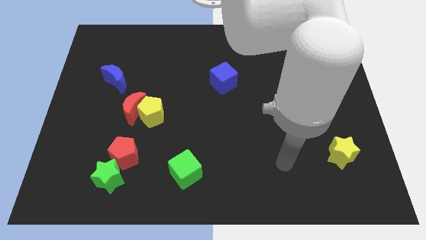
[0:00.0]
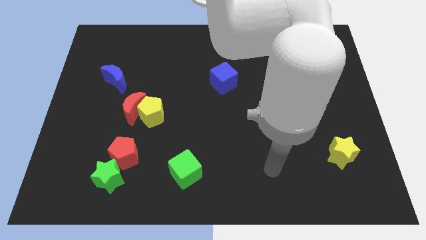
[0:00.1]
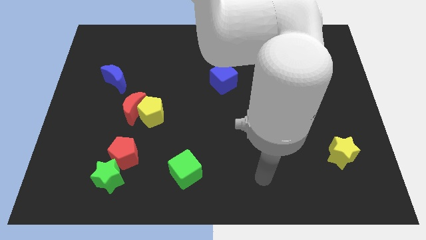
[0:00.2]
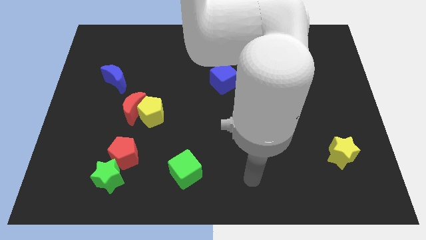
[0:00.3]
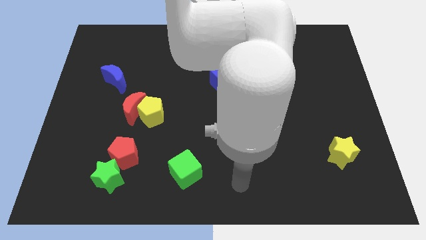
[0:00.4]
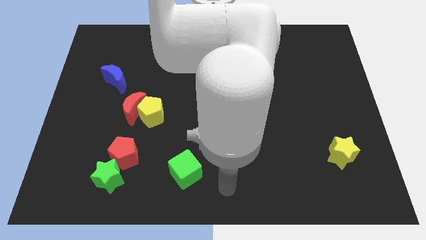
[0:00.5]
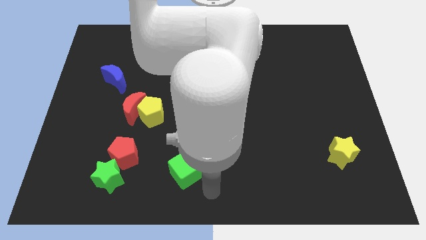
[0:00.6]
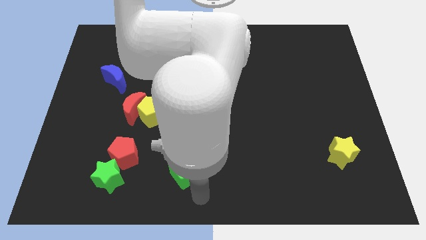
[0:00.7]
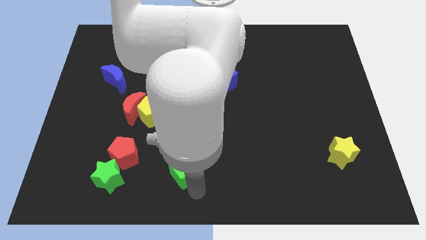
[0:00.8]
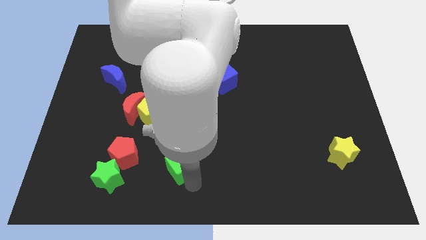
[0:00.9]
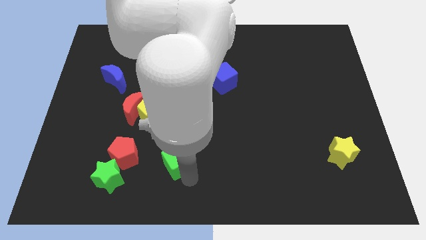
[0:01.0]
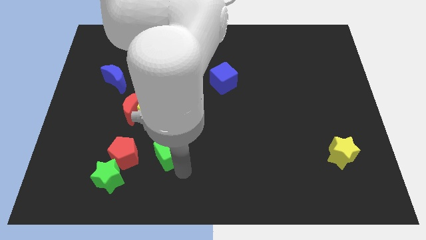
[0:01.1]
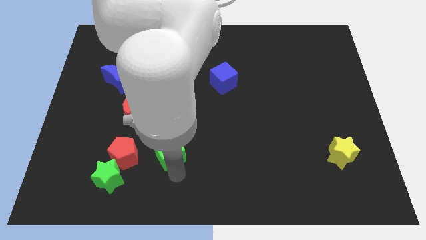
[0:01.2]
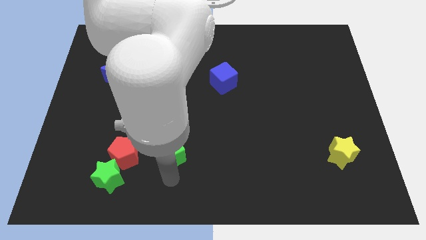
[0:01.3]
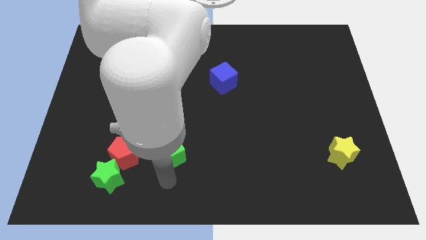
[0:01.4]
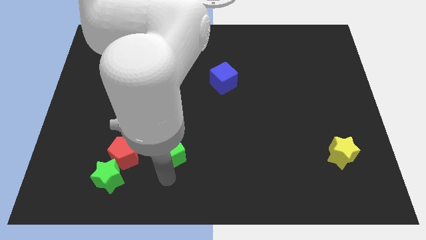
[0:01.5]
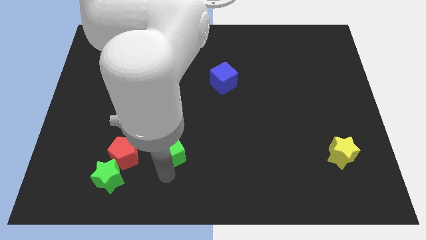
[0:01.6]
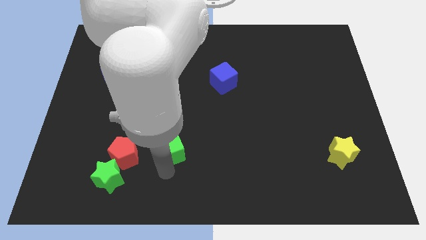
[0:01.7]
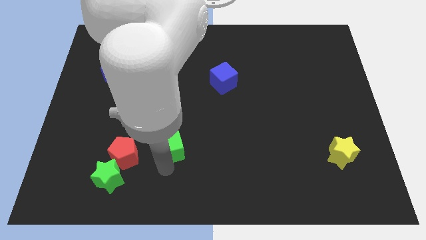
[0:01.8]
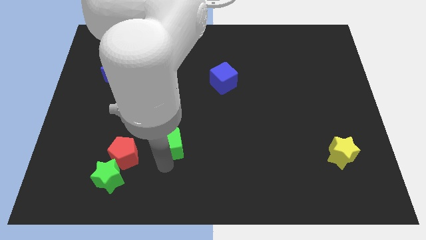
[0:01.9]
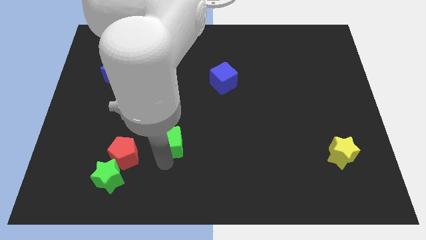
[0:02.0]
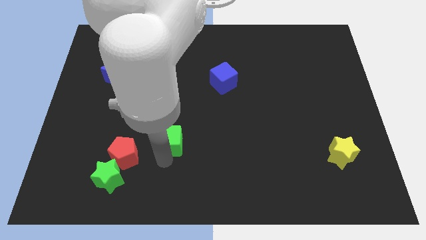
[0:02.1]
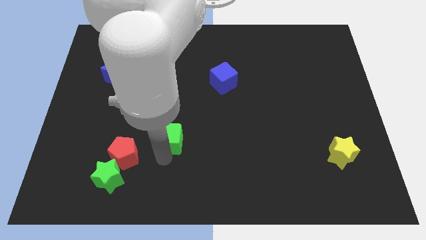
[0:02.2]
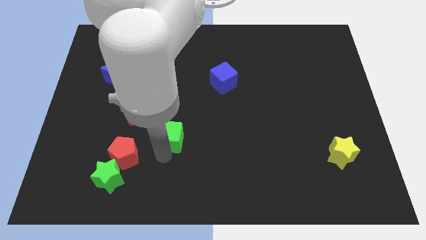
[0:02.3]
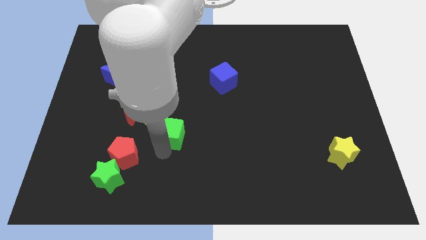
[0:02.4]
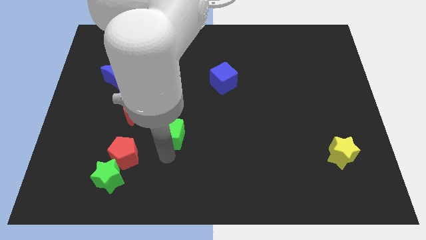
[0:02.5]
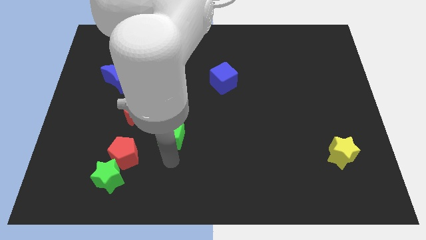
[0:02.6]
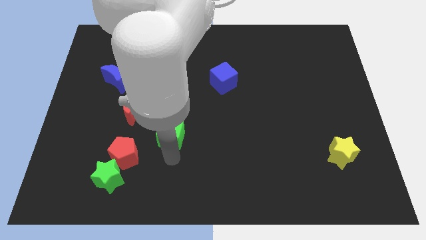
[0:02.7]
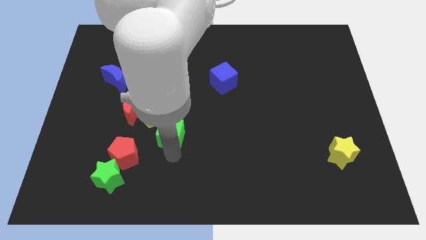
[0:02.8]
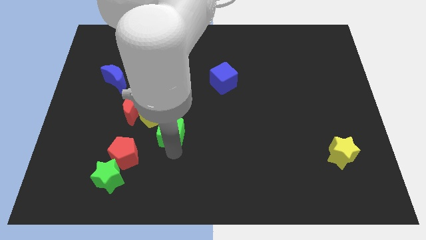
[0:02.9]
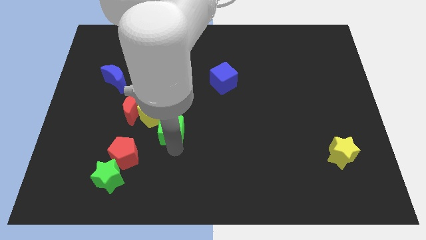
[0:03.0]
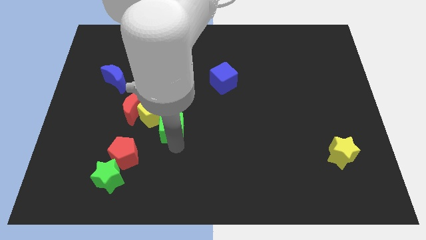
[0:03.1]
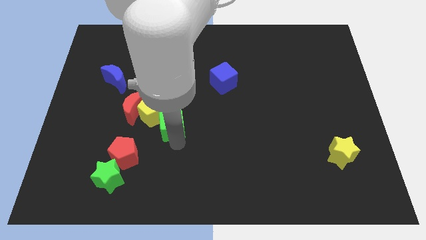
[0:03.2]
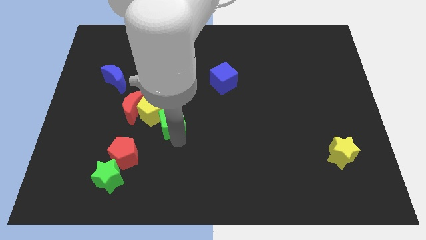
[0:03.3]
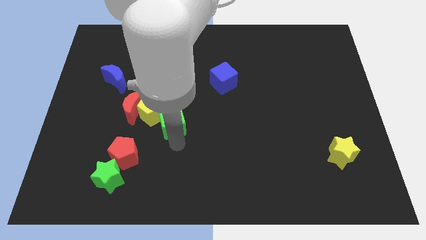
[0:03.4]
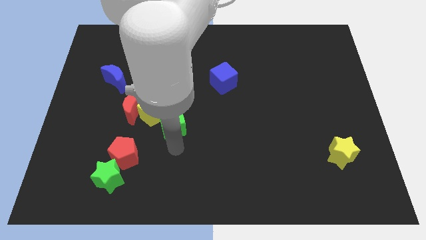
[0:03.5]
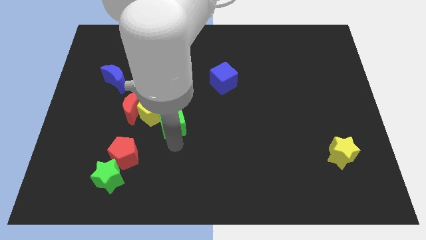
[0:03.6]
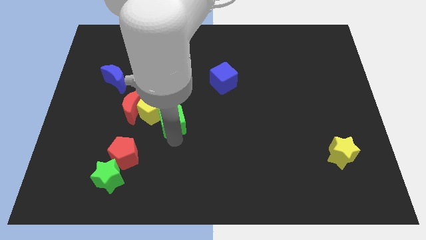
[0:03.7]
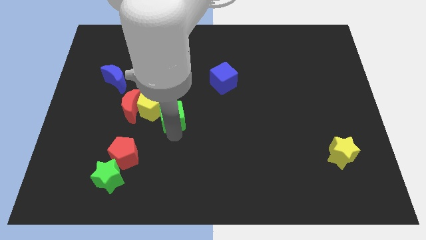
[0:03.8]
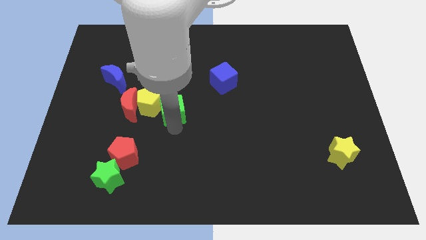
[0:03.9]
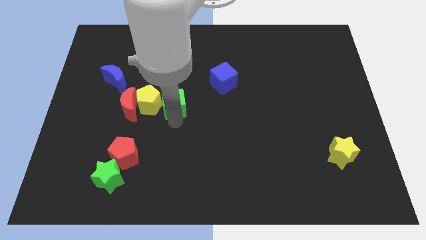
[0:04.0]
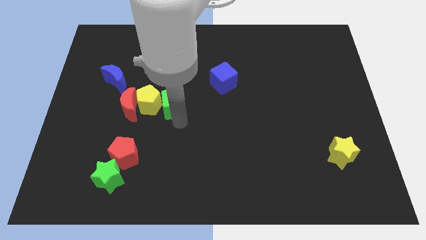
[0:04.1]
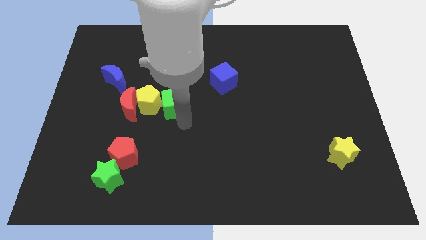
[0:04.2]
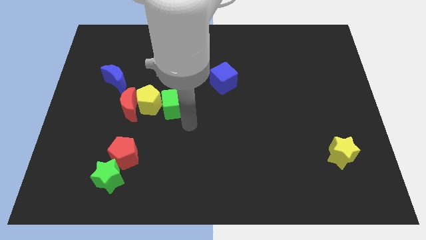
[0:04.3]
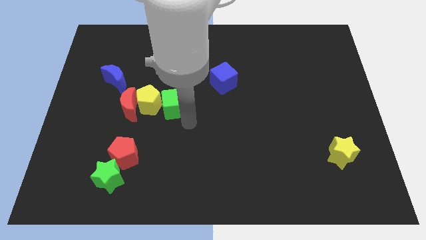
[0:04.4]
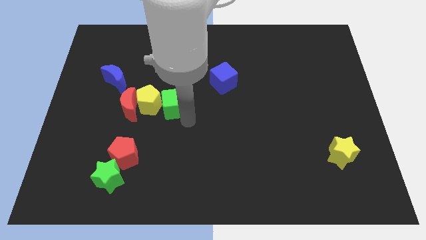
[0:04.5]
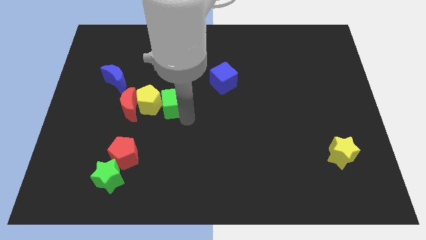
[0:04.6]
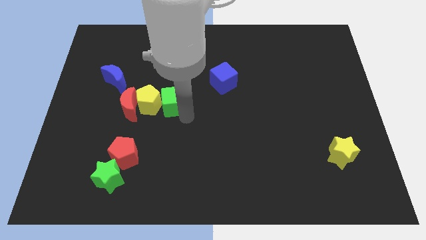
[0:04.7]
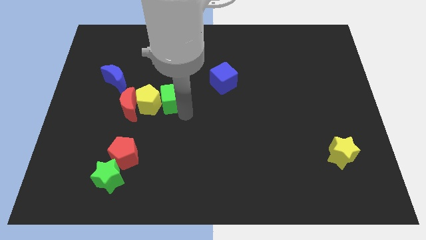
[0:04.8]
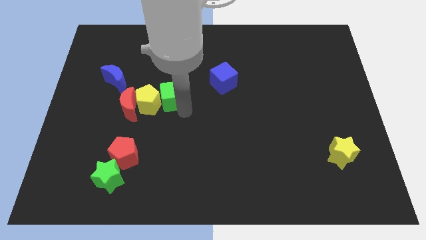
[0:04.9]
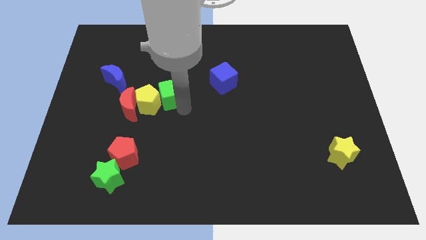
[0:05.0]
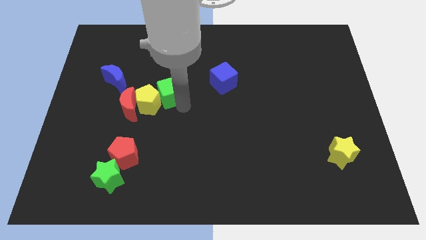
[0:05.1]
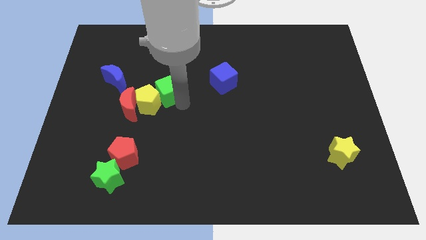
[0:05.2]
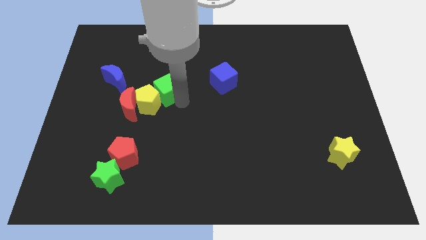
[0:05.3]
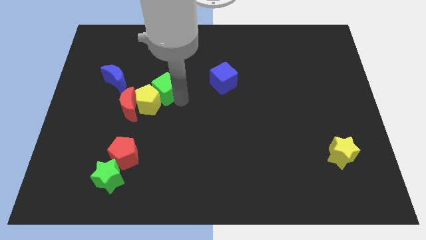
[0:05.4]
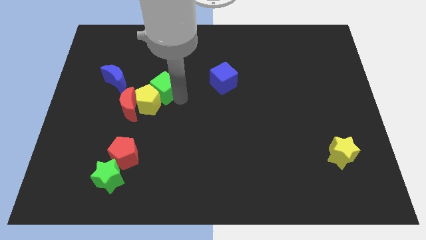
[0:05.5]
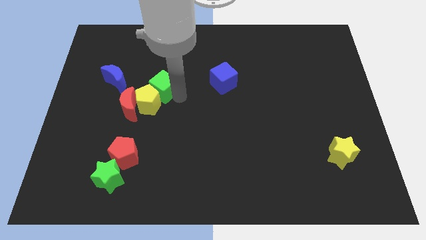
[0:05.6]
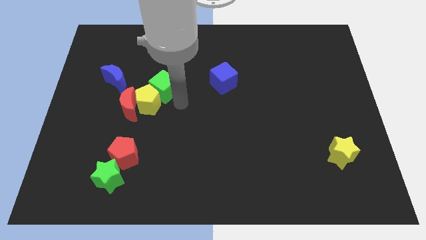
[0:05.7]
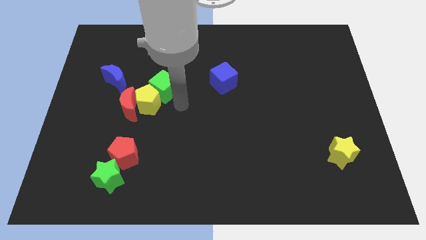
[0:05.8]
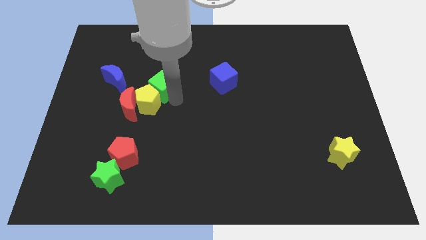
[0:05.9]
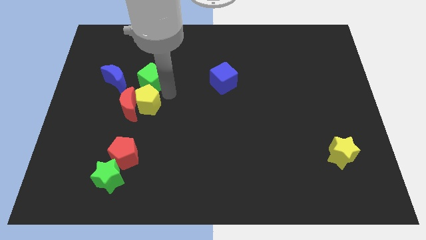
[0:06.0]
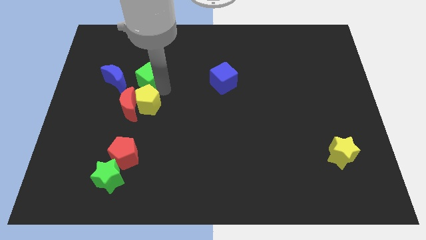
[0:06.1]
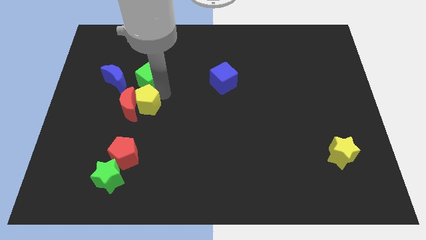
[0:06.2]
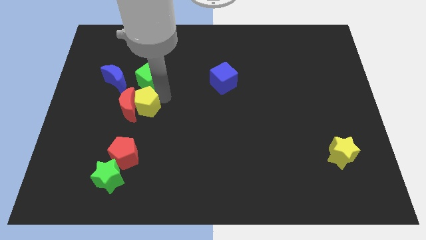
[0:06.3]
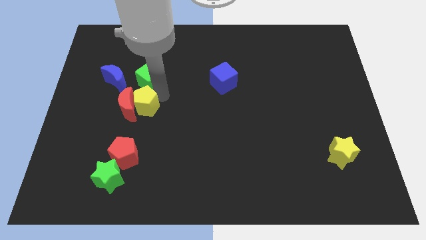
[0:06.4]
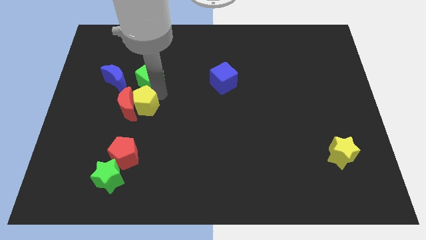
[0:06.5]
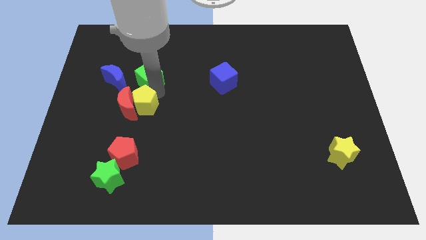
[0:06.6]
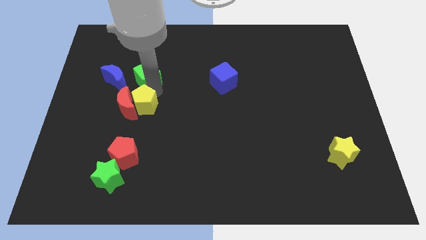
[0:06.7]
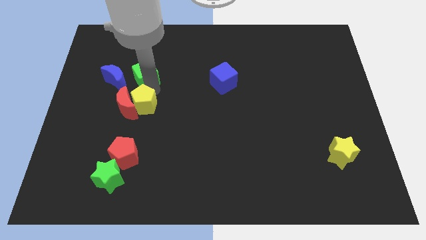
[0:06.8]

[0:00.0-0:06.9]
move the green cube to the top right side of the blue moon

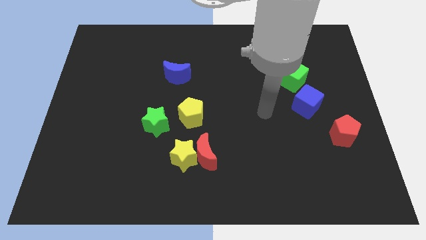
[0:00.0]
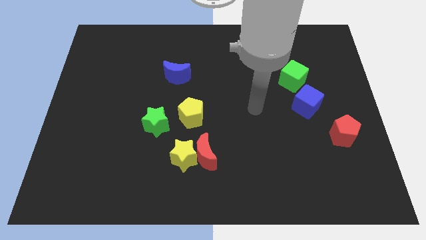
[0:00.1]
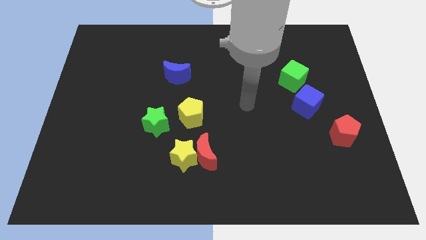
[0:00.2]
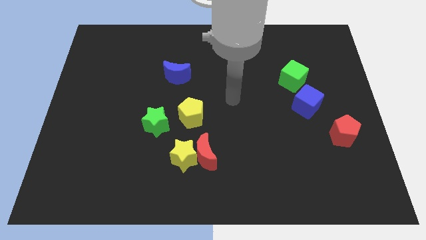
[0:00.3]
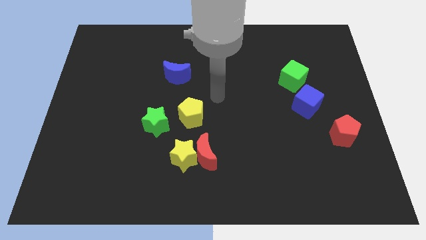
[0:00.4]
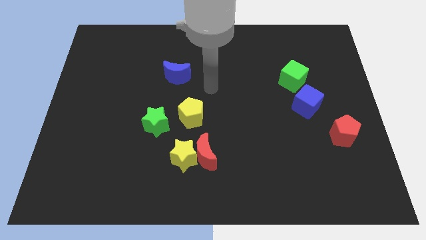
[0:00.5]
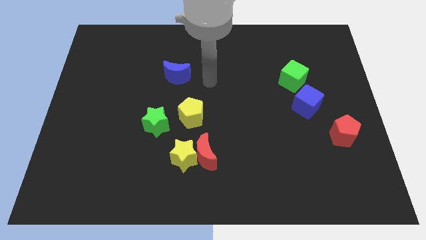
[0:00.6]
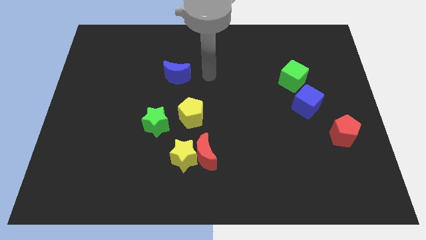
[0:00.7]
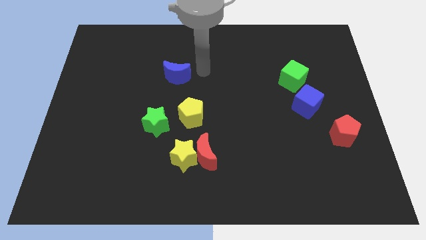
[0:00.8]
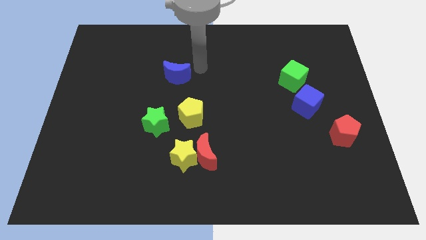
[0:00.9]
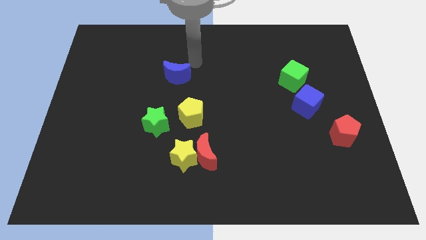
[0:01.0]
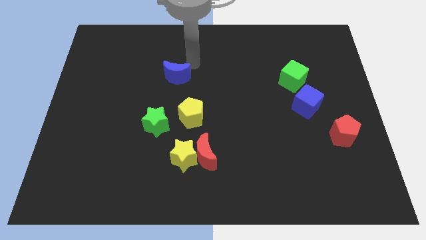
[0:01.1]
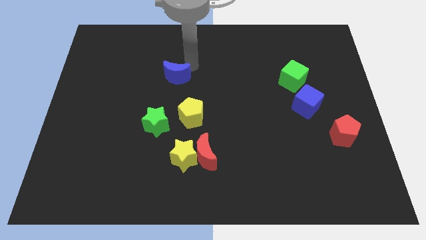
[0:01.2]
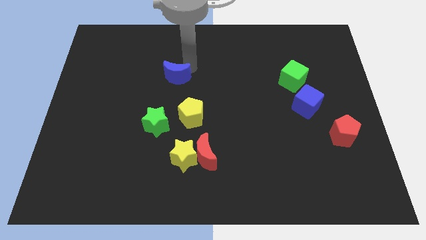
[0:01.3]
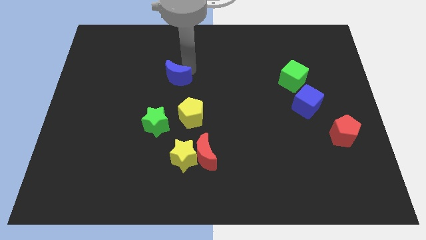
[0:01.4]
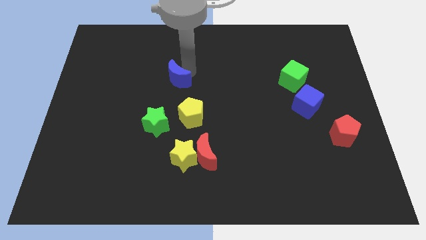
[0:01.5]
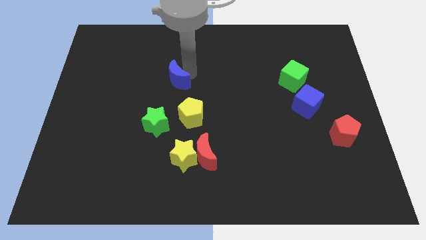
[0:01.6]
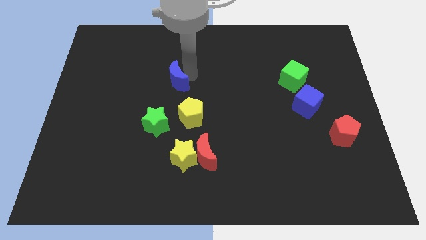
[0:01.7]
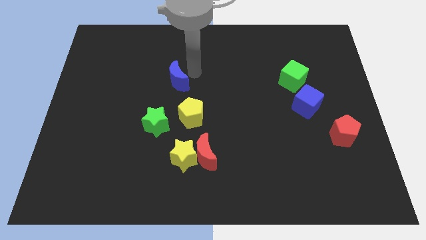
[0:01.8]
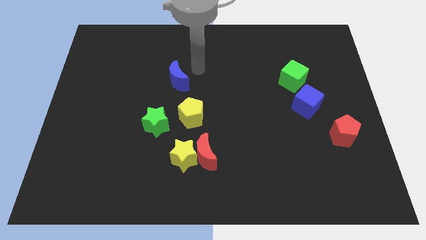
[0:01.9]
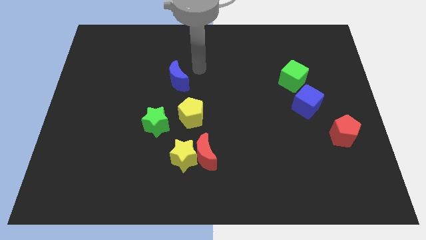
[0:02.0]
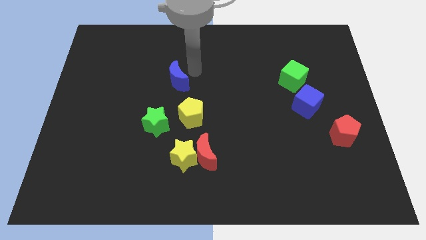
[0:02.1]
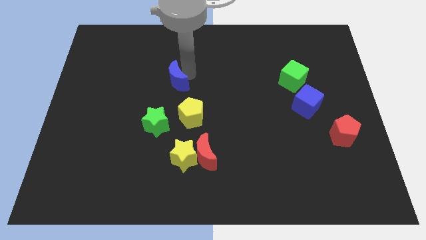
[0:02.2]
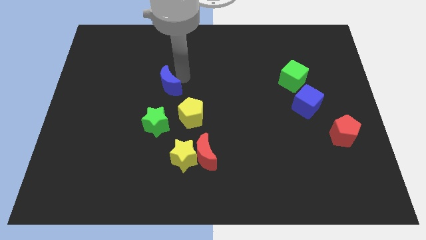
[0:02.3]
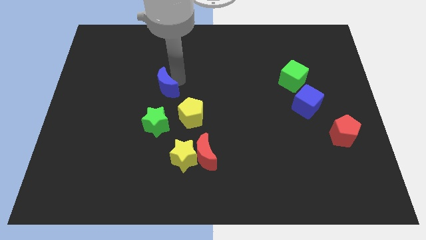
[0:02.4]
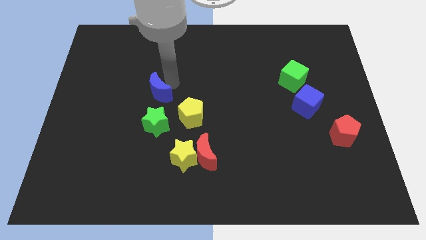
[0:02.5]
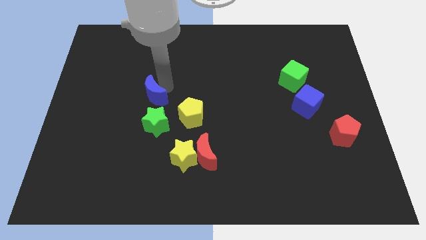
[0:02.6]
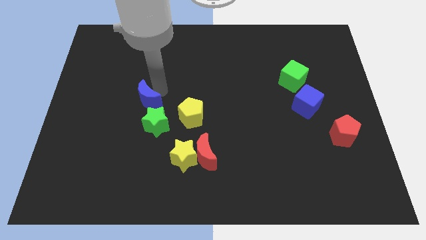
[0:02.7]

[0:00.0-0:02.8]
move the blue moon diagonally up and to the left of the green star
